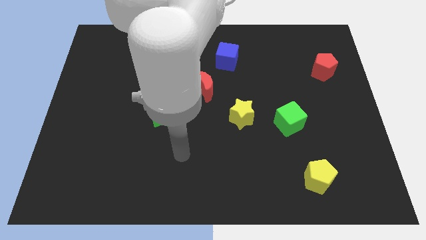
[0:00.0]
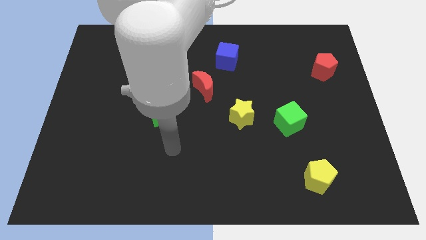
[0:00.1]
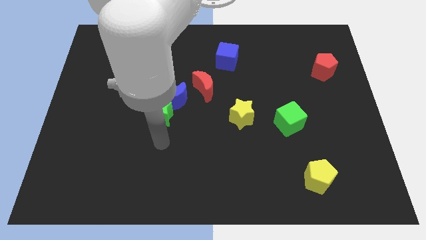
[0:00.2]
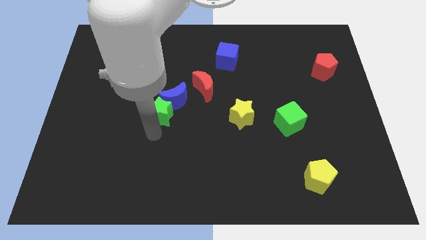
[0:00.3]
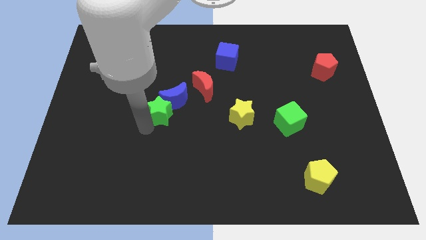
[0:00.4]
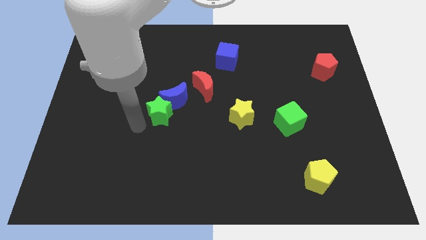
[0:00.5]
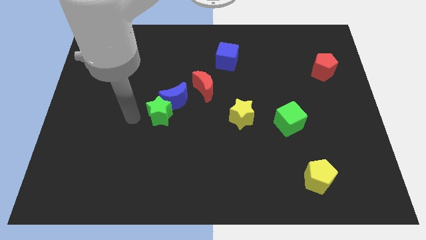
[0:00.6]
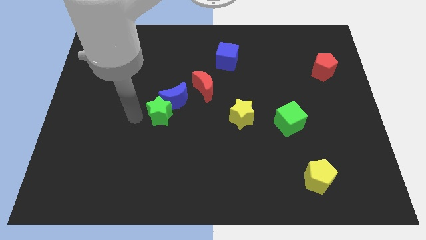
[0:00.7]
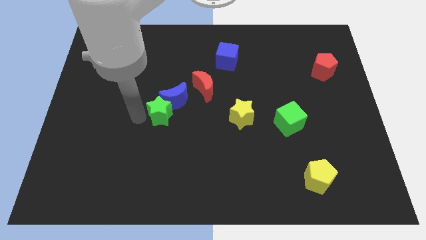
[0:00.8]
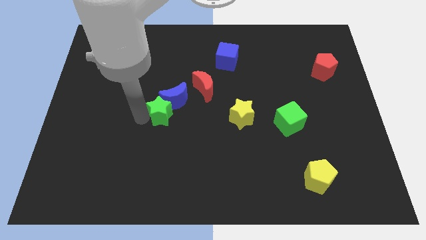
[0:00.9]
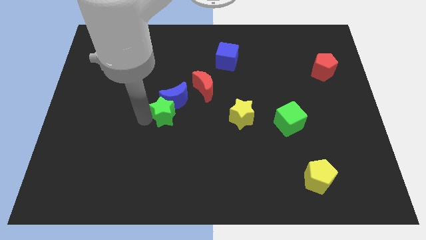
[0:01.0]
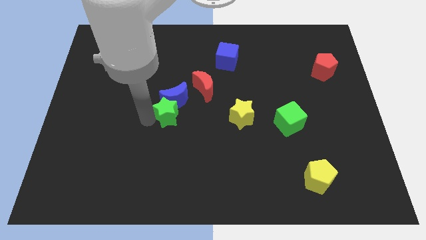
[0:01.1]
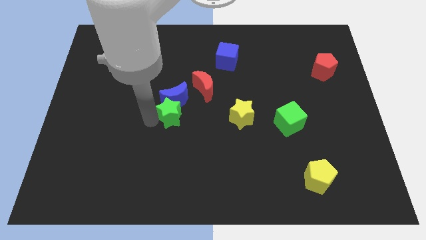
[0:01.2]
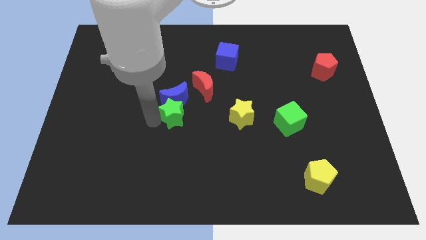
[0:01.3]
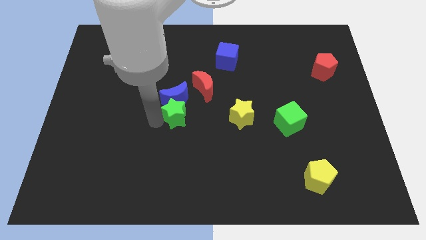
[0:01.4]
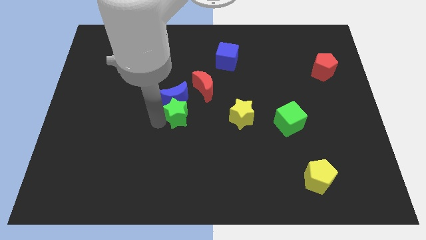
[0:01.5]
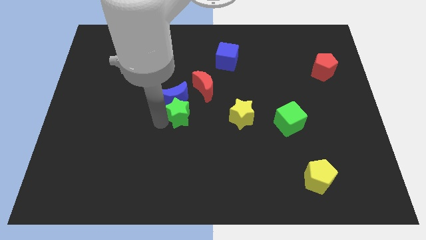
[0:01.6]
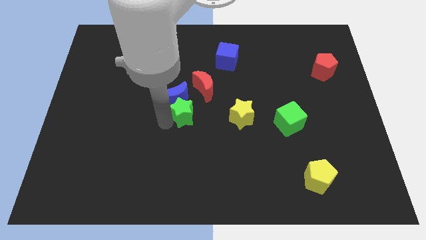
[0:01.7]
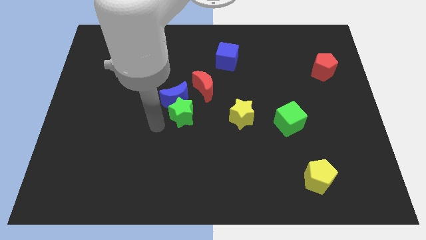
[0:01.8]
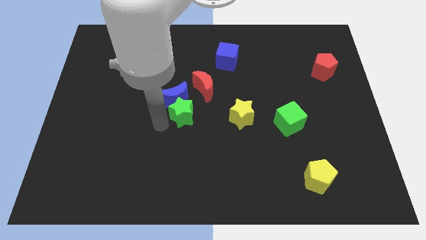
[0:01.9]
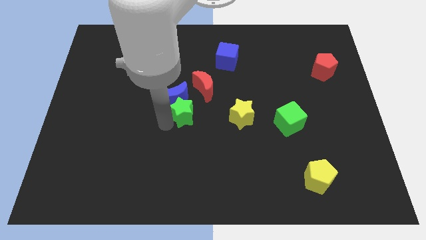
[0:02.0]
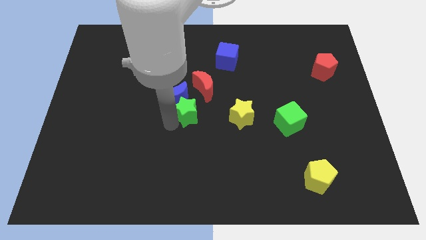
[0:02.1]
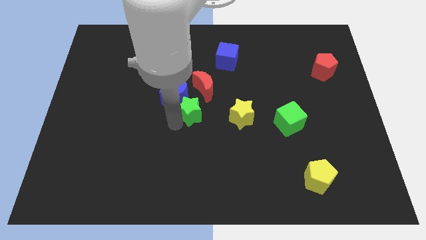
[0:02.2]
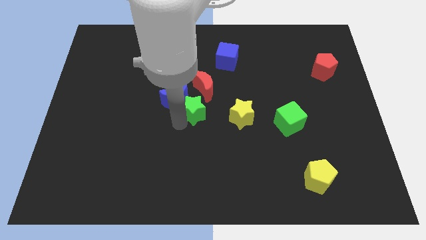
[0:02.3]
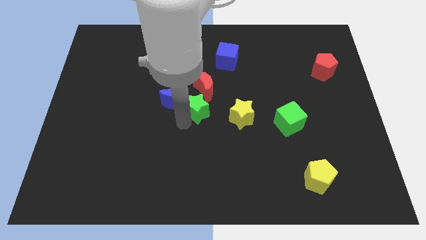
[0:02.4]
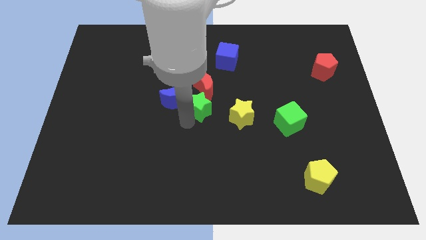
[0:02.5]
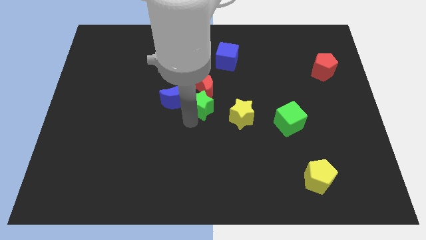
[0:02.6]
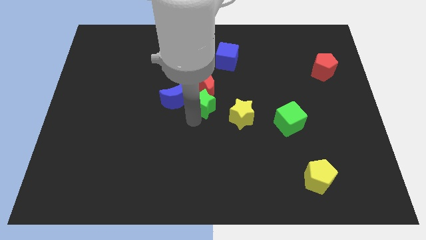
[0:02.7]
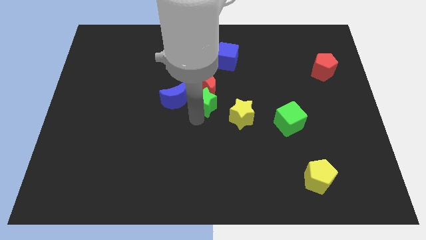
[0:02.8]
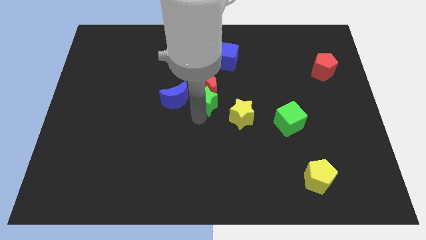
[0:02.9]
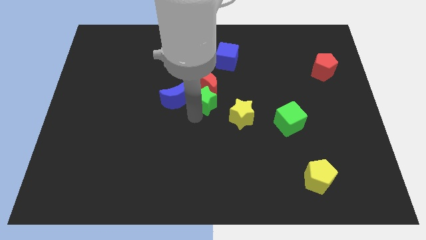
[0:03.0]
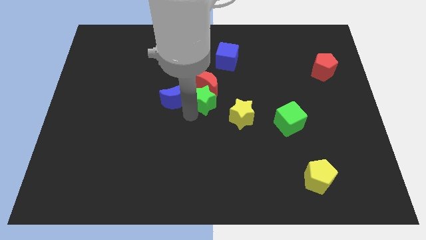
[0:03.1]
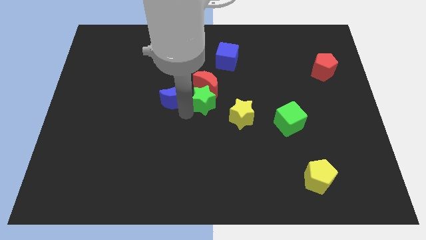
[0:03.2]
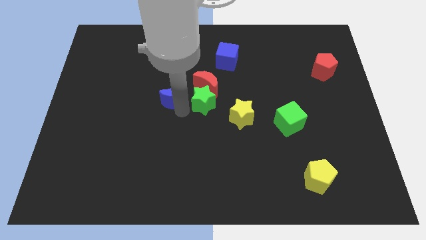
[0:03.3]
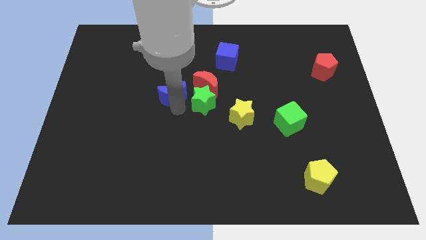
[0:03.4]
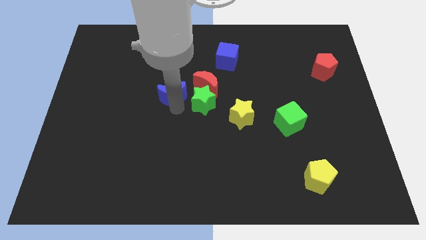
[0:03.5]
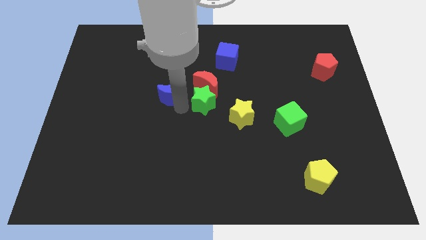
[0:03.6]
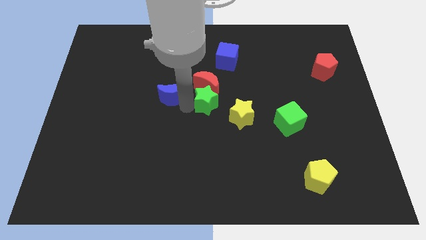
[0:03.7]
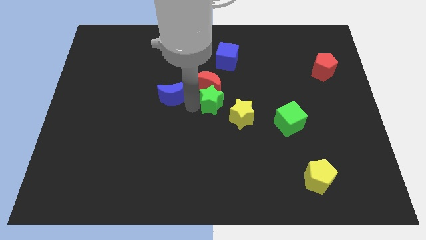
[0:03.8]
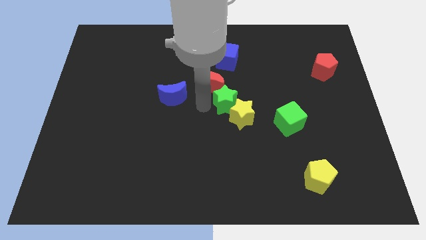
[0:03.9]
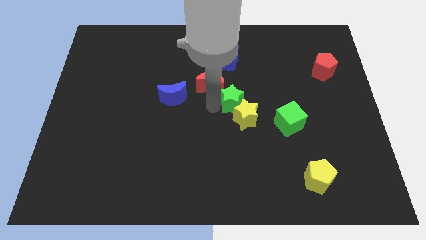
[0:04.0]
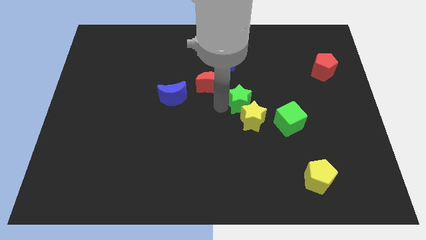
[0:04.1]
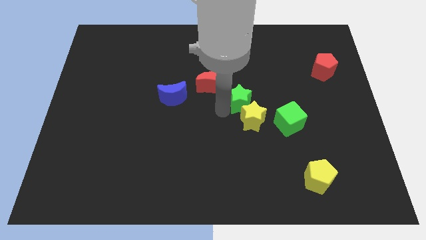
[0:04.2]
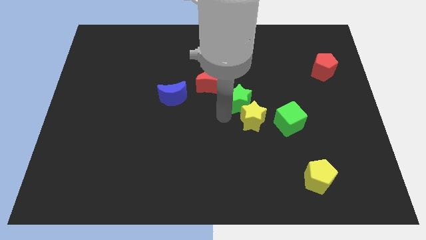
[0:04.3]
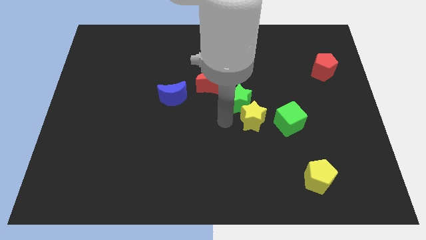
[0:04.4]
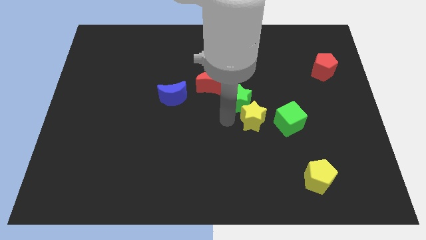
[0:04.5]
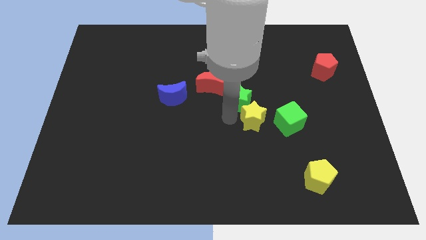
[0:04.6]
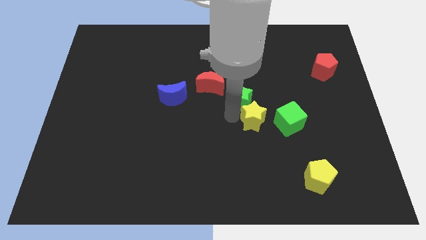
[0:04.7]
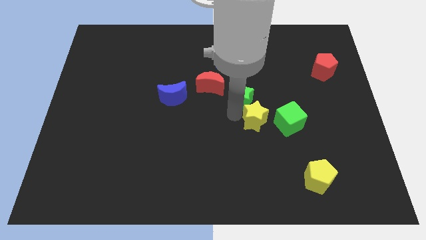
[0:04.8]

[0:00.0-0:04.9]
put the green star to the right of the red moon

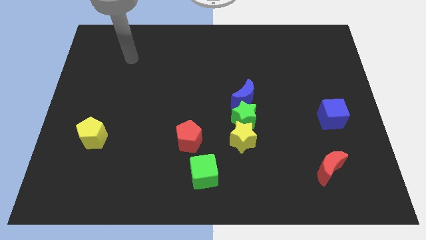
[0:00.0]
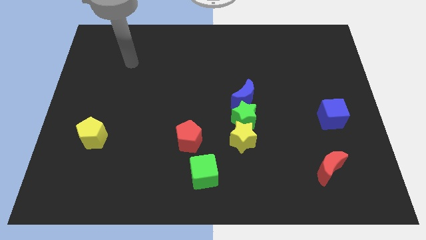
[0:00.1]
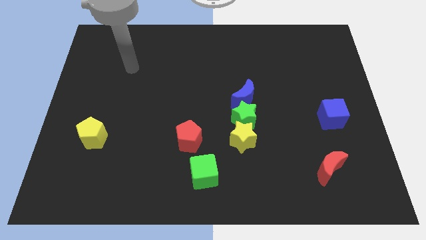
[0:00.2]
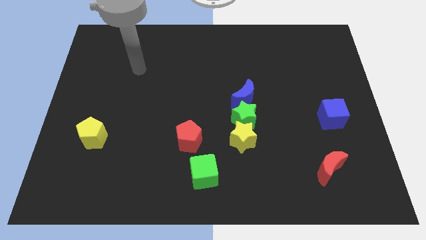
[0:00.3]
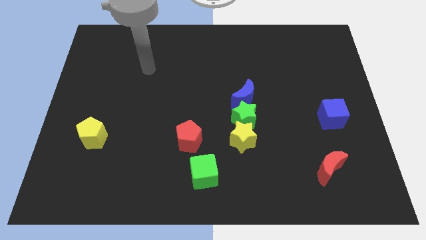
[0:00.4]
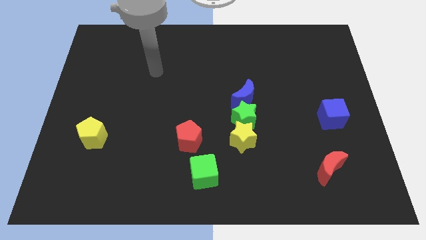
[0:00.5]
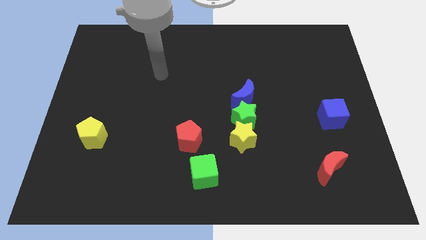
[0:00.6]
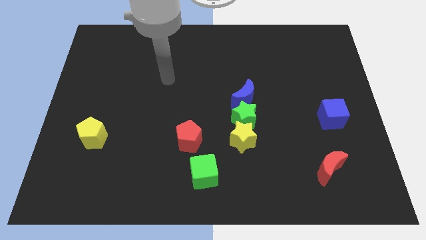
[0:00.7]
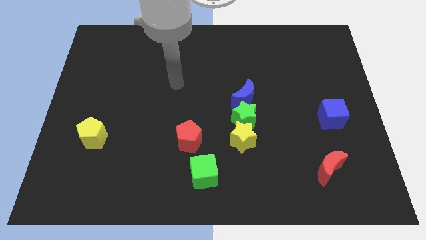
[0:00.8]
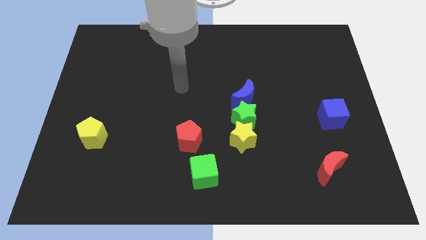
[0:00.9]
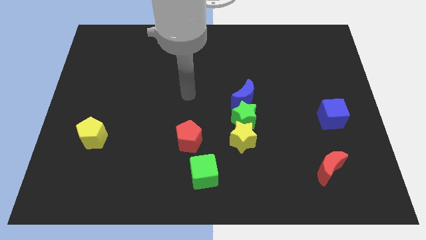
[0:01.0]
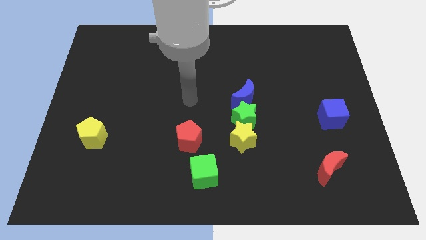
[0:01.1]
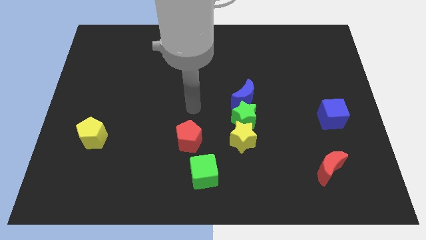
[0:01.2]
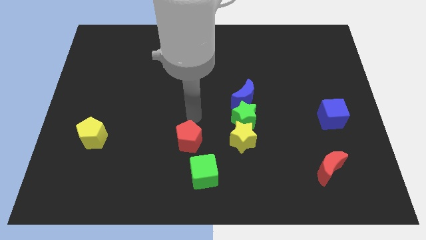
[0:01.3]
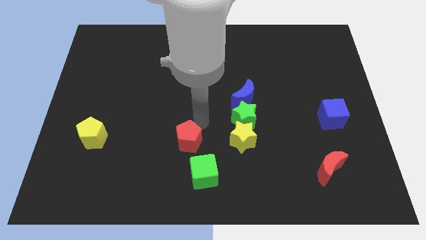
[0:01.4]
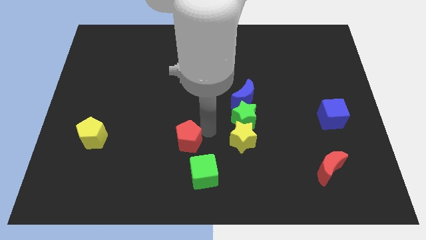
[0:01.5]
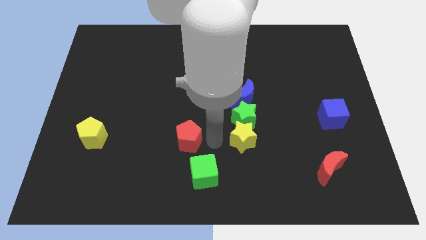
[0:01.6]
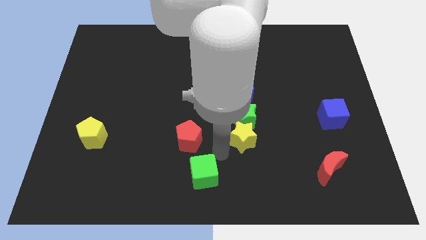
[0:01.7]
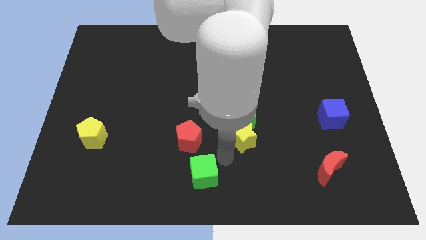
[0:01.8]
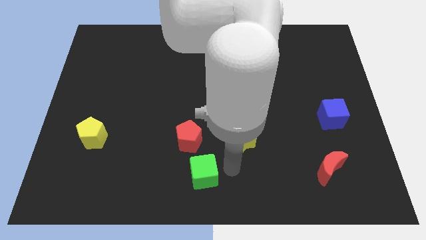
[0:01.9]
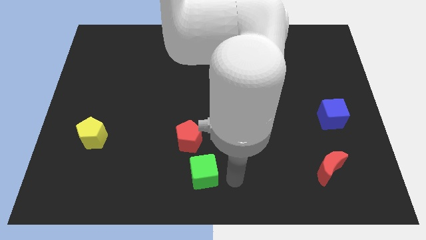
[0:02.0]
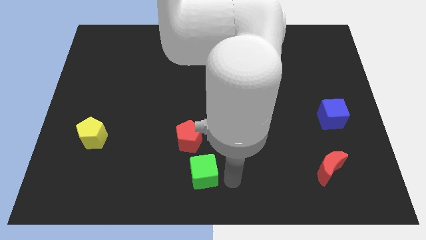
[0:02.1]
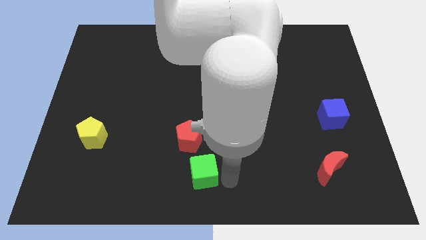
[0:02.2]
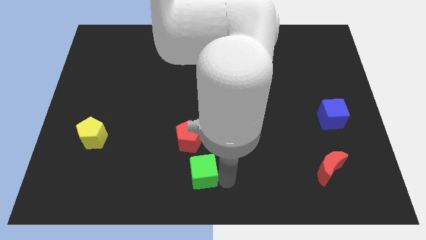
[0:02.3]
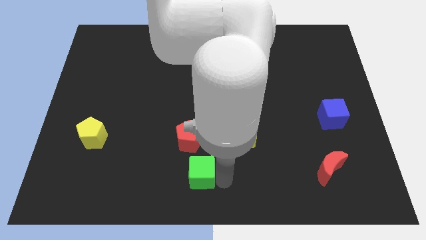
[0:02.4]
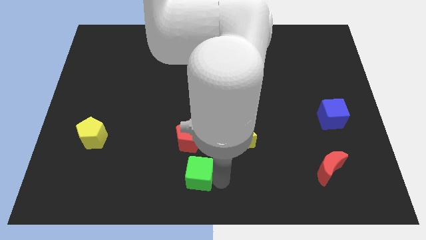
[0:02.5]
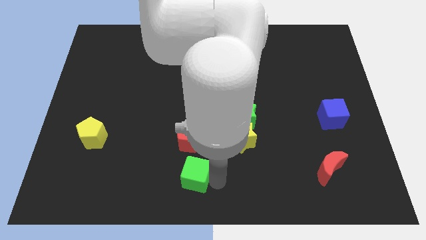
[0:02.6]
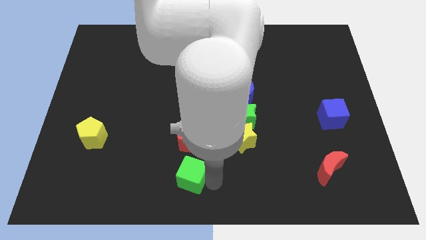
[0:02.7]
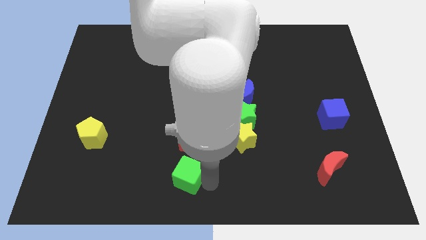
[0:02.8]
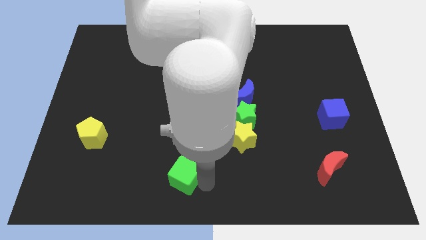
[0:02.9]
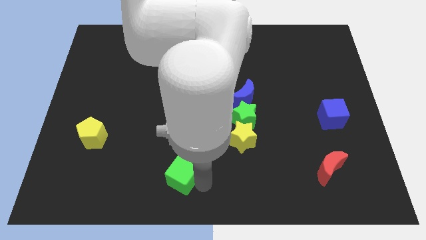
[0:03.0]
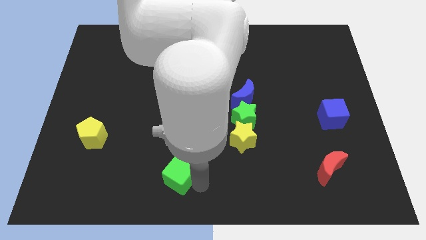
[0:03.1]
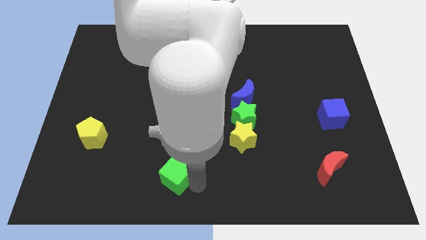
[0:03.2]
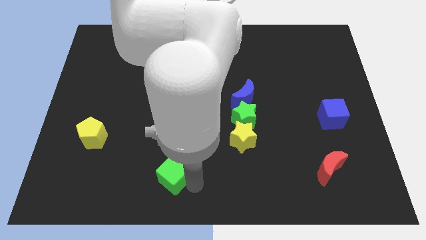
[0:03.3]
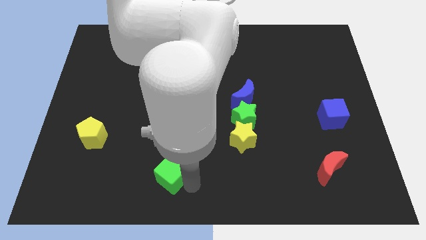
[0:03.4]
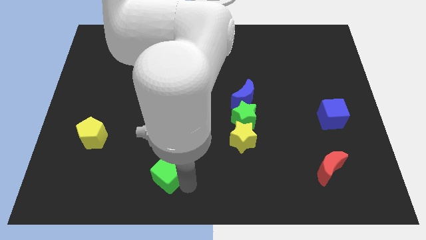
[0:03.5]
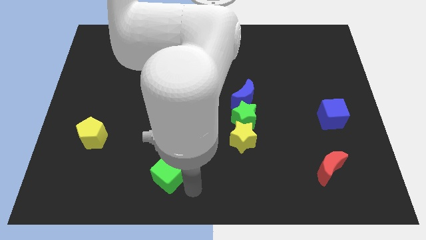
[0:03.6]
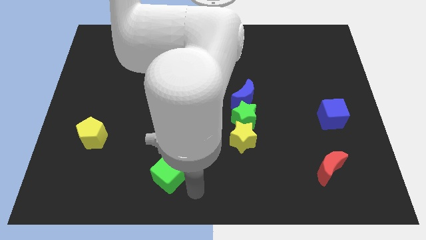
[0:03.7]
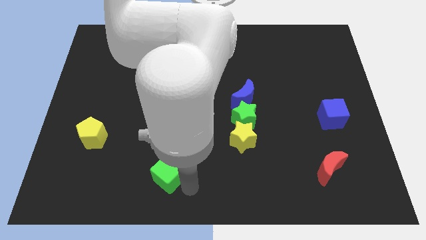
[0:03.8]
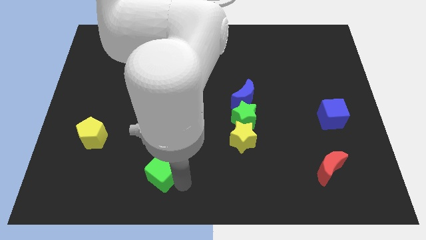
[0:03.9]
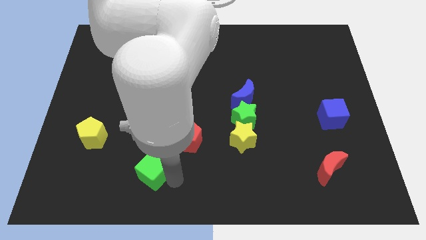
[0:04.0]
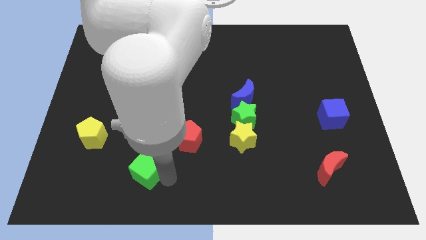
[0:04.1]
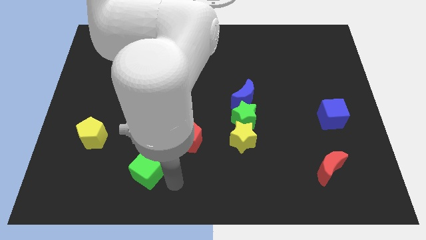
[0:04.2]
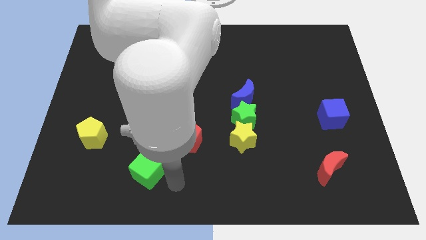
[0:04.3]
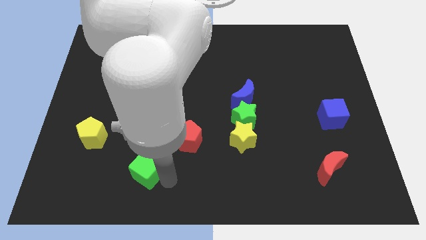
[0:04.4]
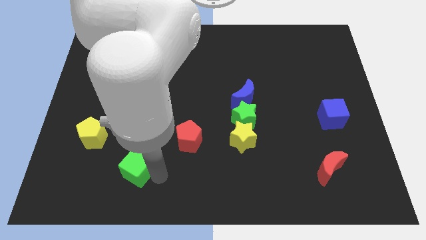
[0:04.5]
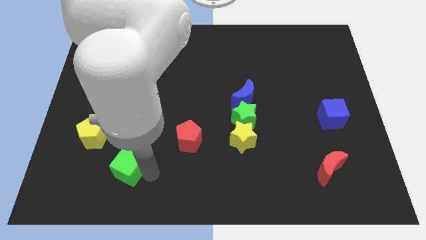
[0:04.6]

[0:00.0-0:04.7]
slide the green cube diagonally down and to the right of the yellow pentagon
